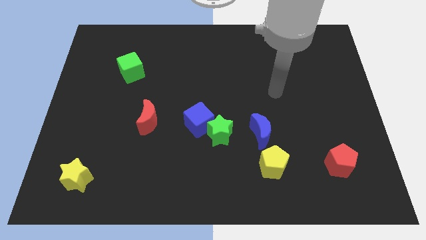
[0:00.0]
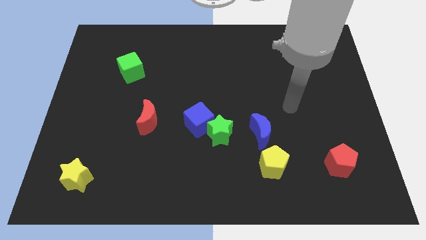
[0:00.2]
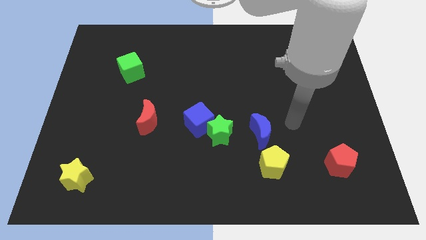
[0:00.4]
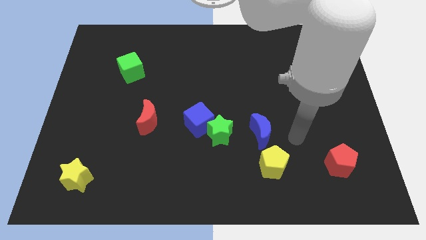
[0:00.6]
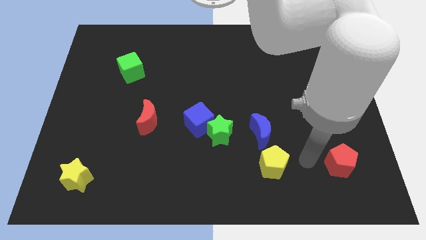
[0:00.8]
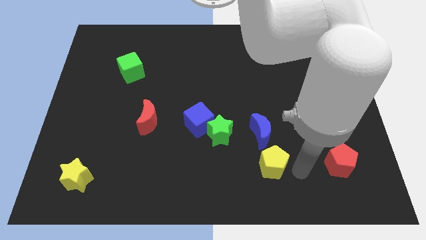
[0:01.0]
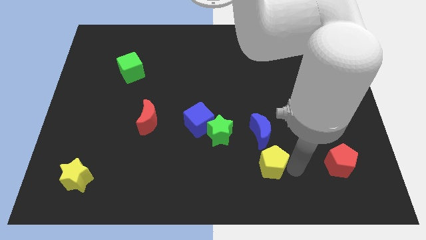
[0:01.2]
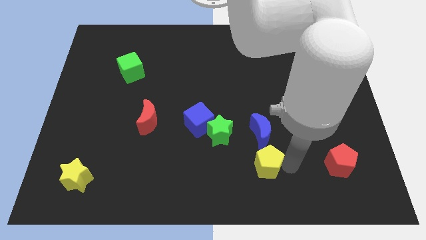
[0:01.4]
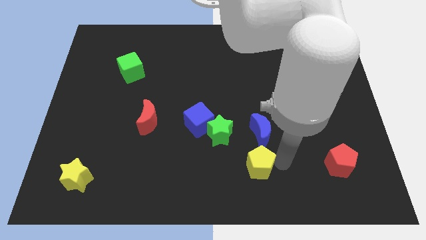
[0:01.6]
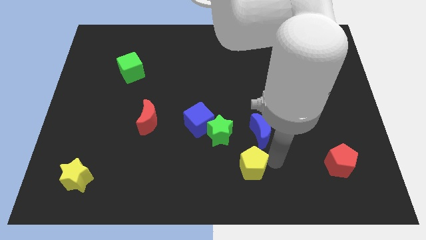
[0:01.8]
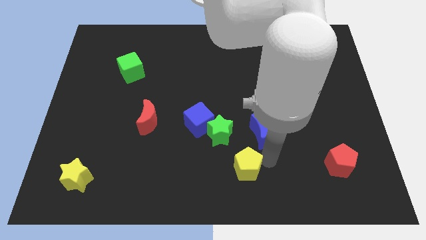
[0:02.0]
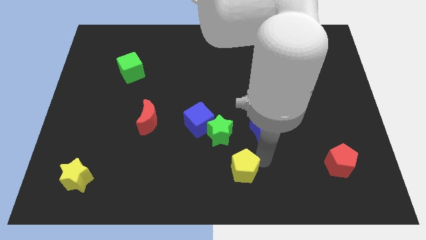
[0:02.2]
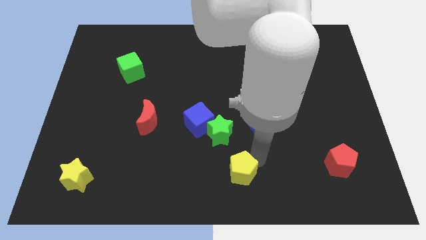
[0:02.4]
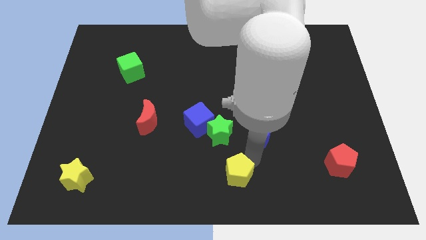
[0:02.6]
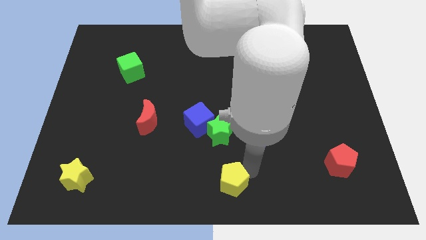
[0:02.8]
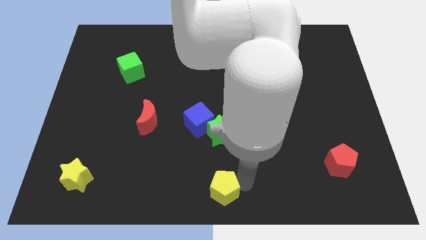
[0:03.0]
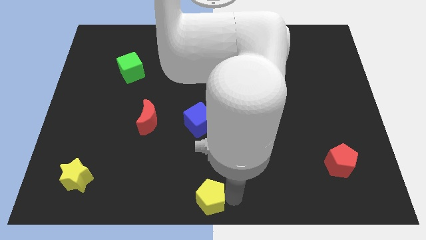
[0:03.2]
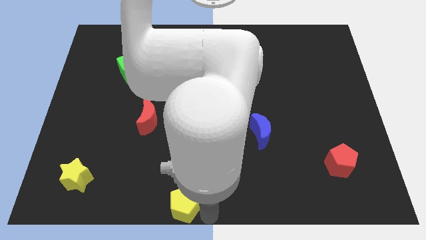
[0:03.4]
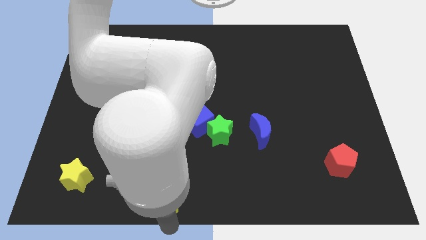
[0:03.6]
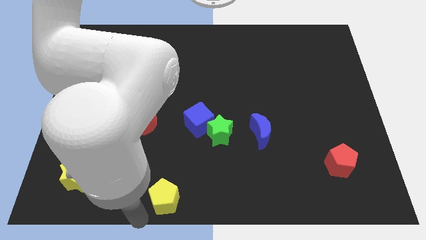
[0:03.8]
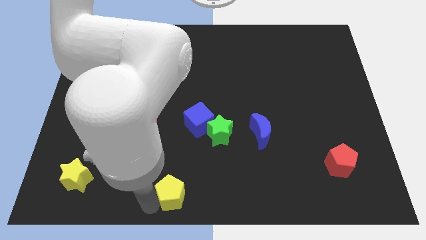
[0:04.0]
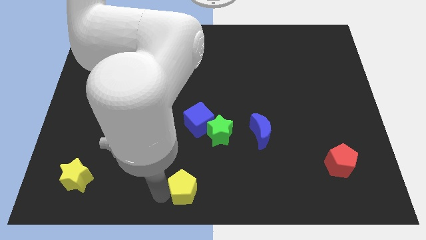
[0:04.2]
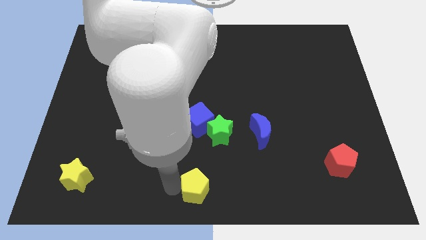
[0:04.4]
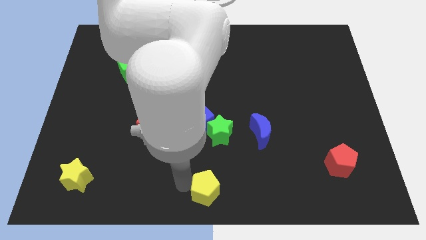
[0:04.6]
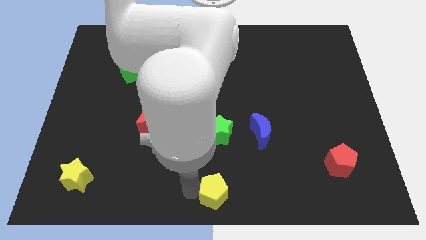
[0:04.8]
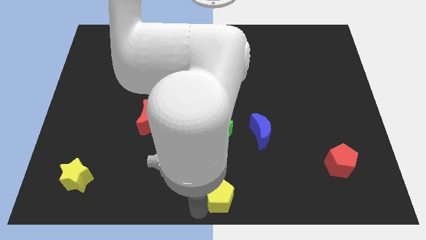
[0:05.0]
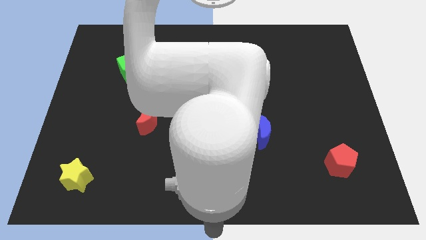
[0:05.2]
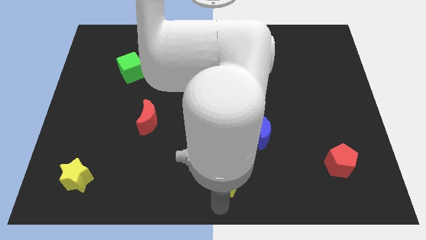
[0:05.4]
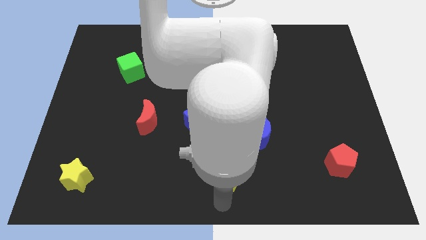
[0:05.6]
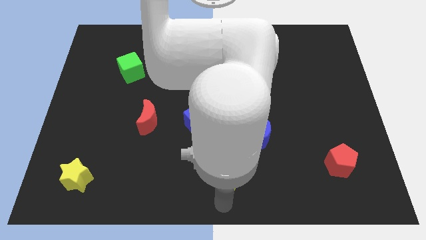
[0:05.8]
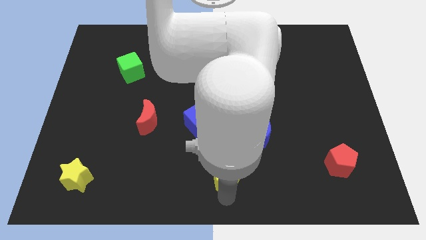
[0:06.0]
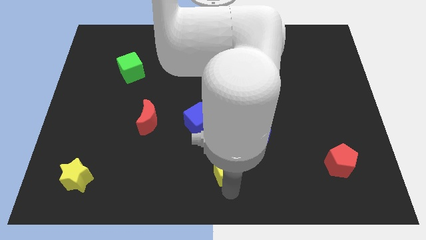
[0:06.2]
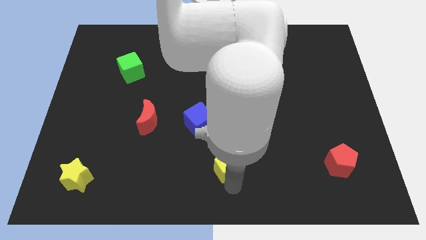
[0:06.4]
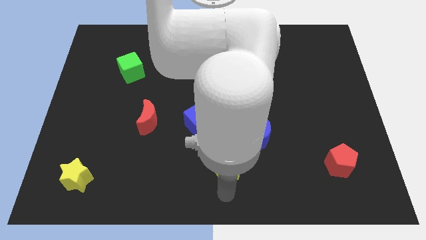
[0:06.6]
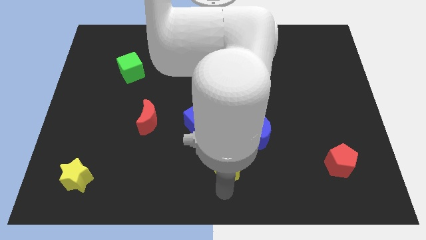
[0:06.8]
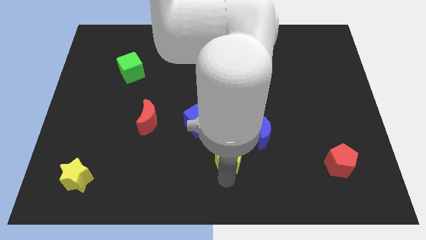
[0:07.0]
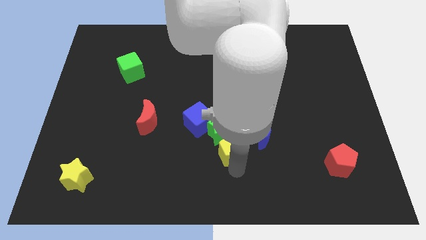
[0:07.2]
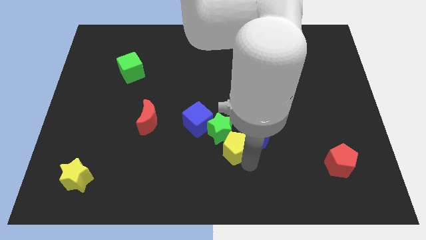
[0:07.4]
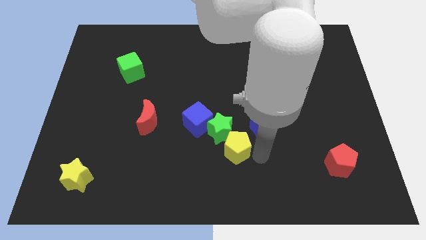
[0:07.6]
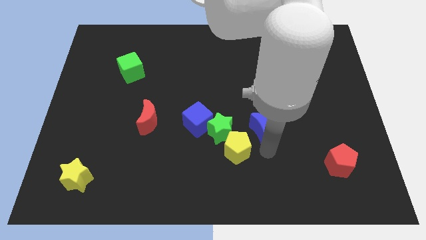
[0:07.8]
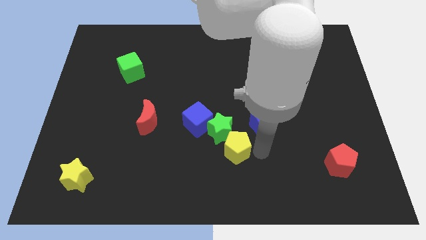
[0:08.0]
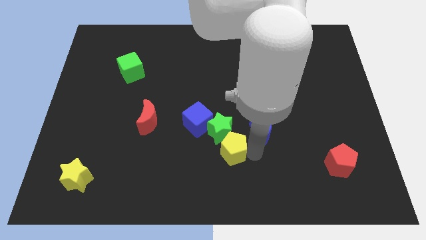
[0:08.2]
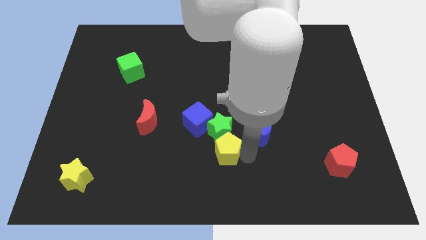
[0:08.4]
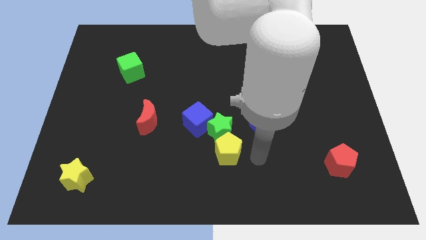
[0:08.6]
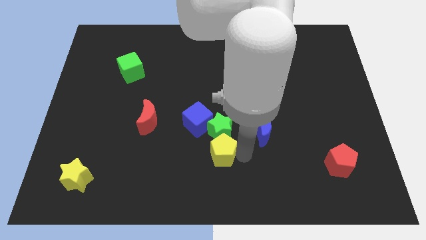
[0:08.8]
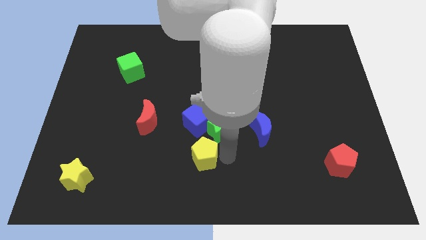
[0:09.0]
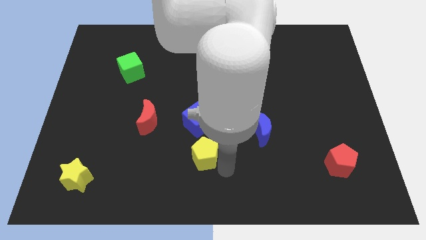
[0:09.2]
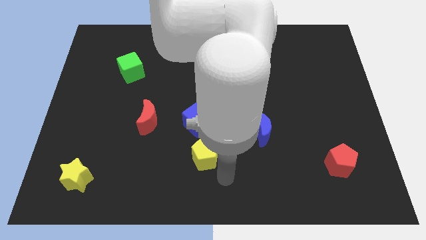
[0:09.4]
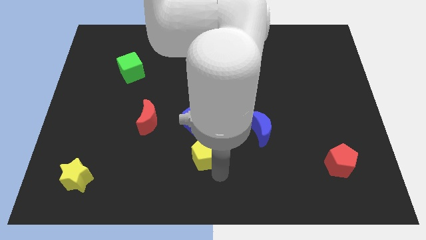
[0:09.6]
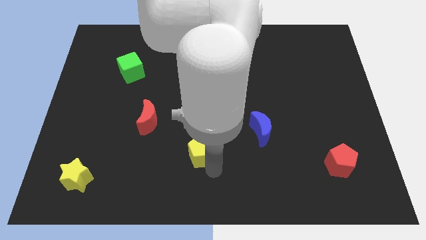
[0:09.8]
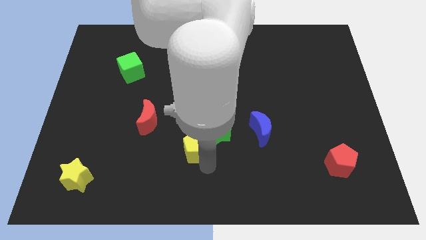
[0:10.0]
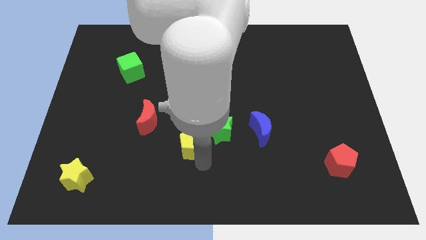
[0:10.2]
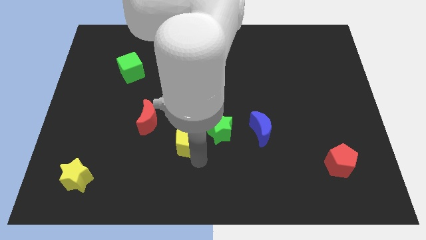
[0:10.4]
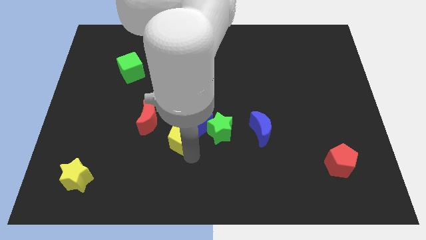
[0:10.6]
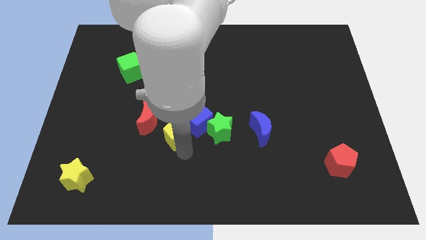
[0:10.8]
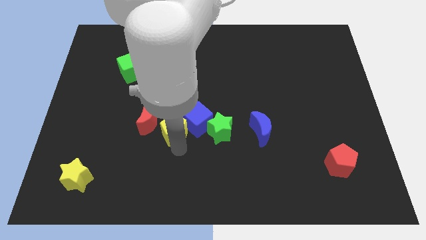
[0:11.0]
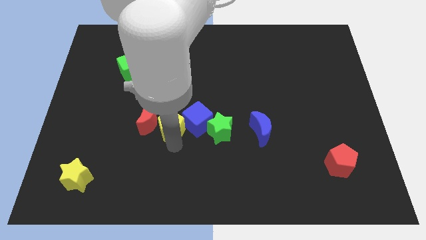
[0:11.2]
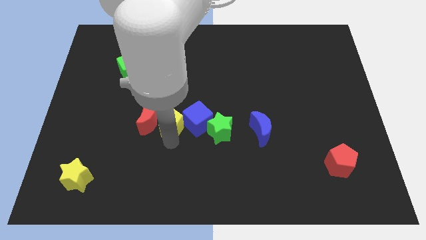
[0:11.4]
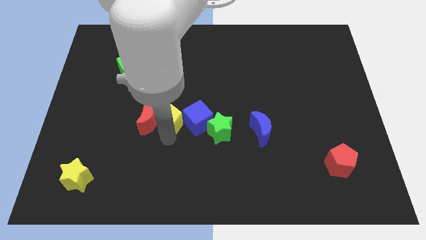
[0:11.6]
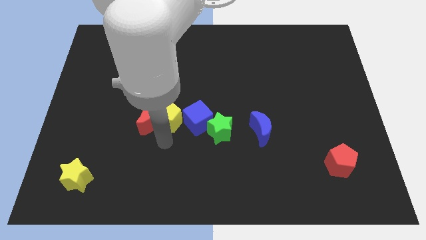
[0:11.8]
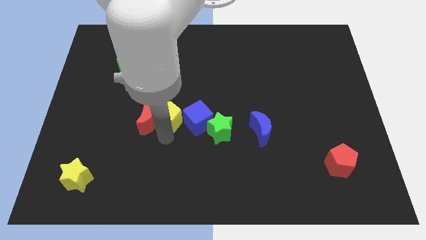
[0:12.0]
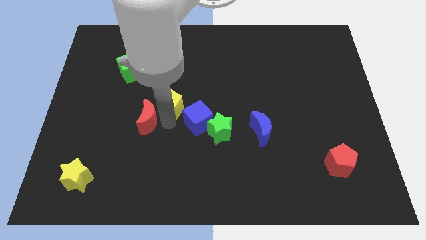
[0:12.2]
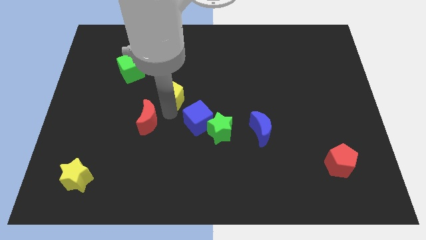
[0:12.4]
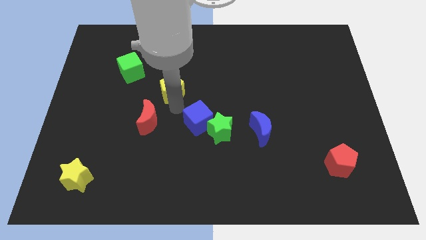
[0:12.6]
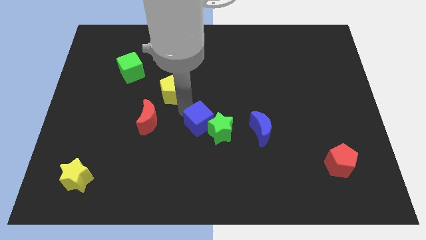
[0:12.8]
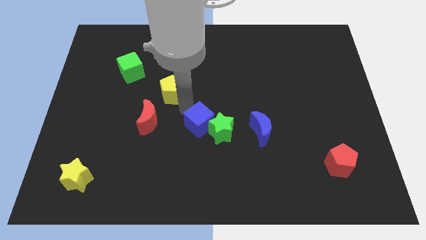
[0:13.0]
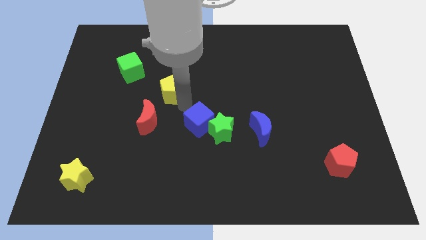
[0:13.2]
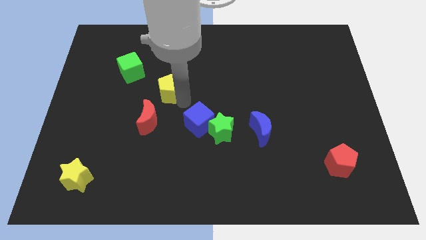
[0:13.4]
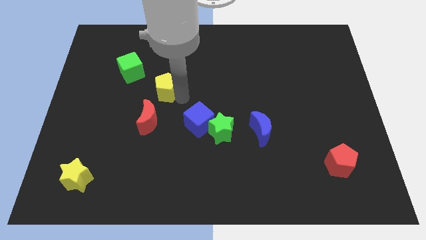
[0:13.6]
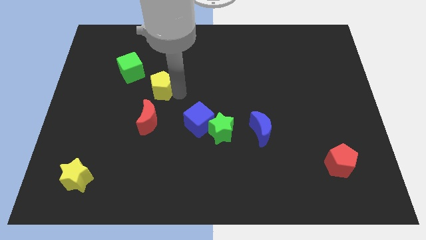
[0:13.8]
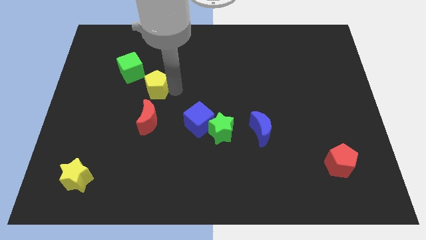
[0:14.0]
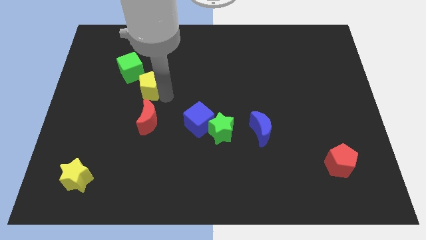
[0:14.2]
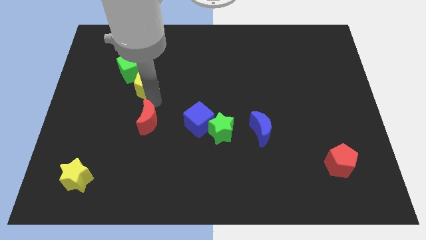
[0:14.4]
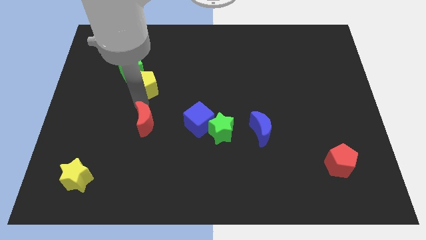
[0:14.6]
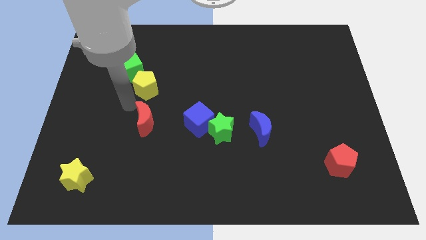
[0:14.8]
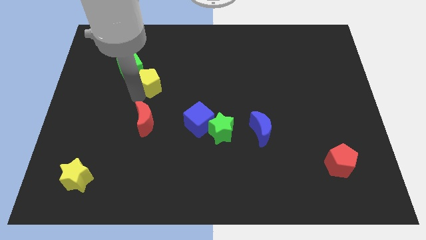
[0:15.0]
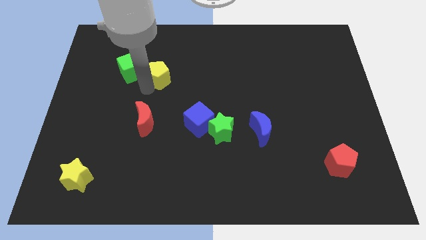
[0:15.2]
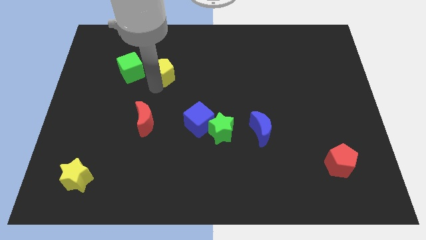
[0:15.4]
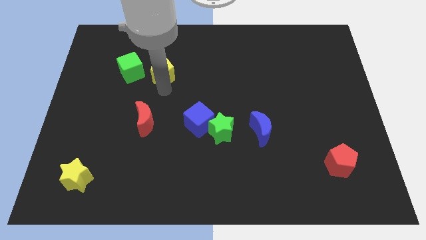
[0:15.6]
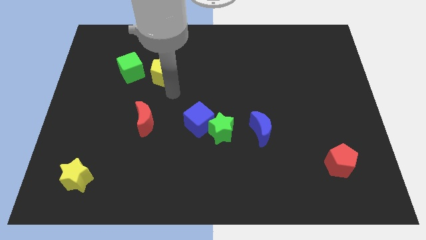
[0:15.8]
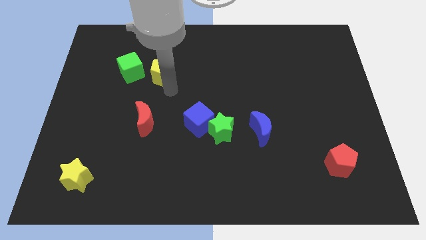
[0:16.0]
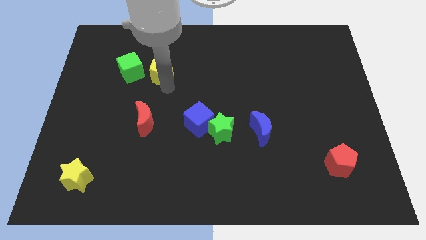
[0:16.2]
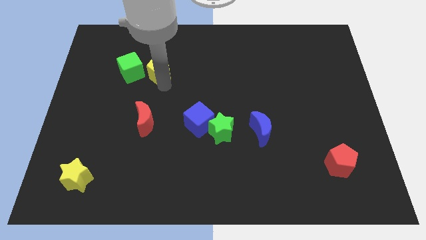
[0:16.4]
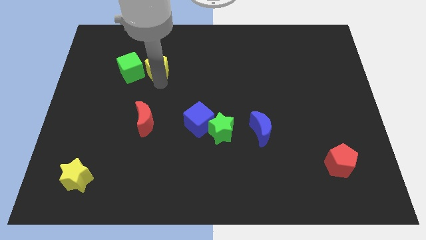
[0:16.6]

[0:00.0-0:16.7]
move the yellow pentagon to the top right of the green cube
